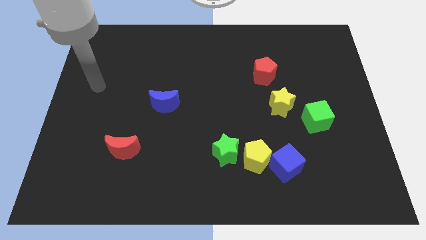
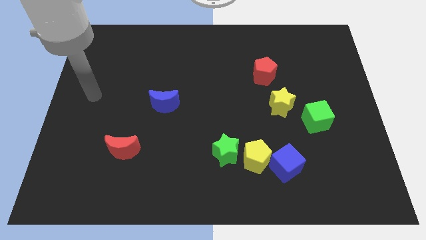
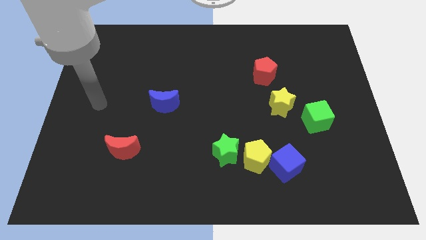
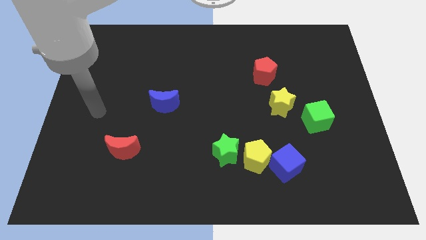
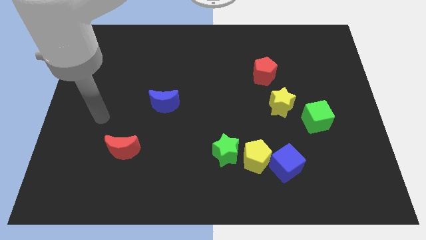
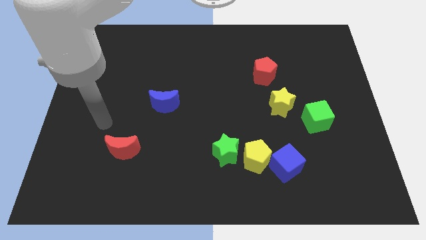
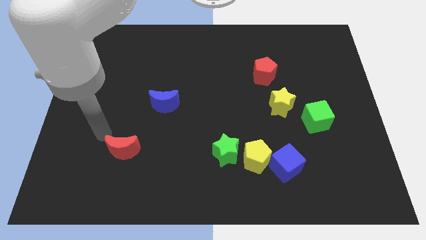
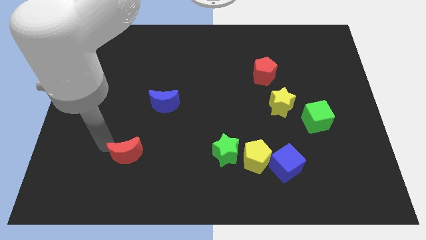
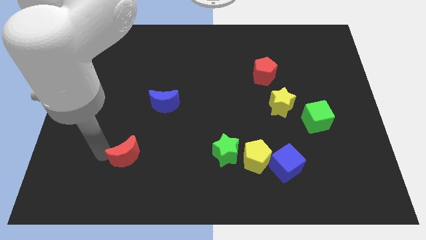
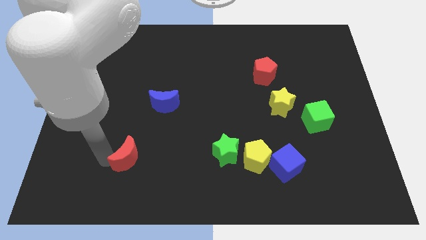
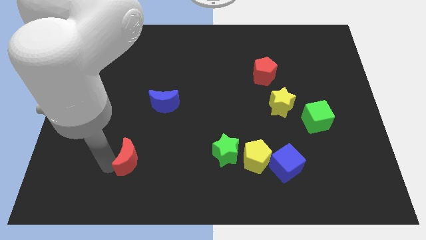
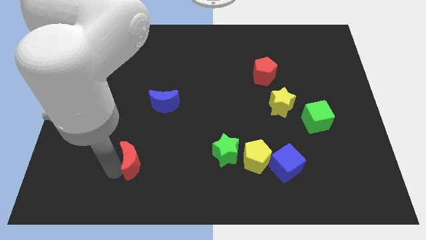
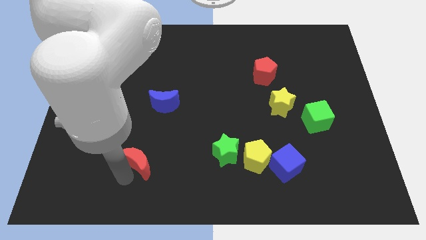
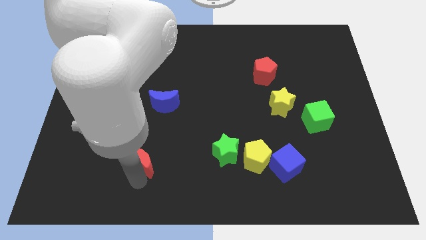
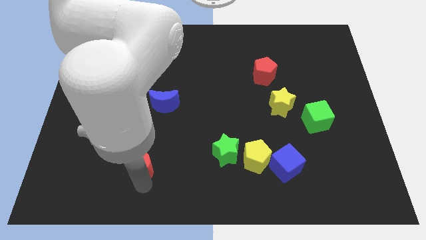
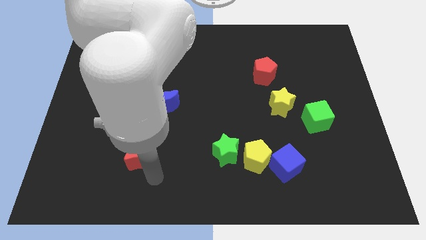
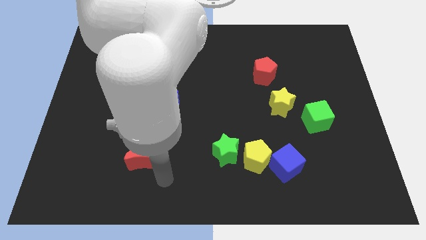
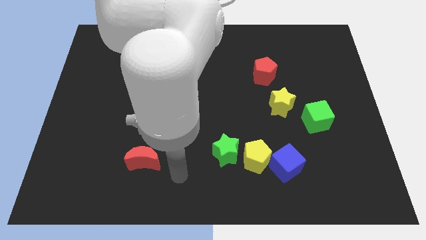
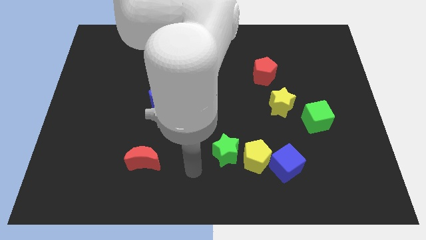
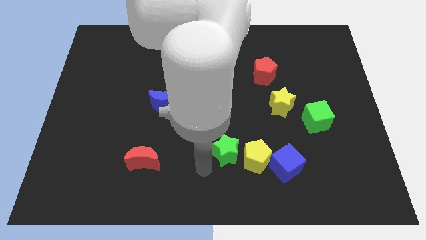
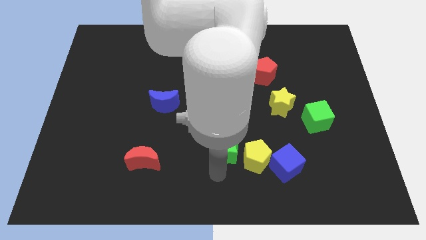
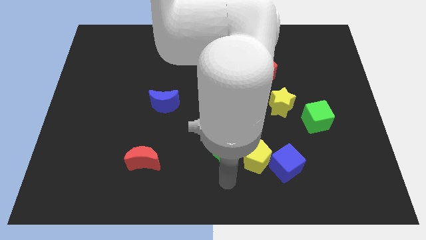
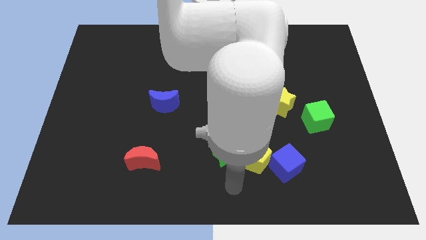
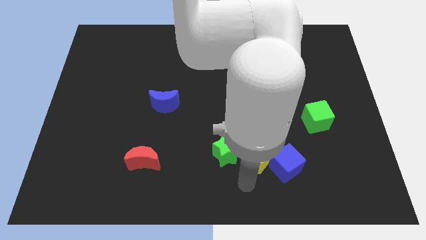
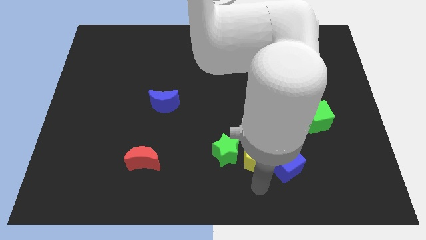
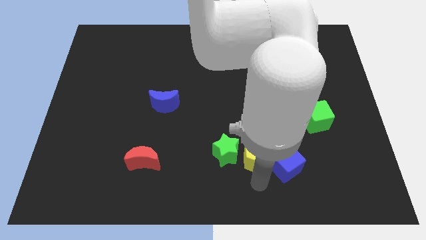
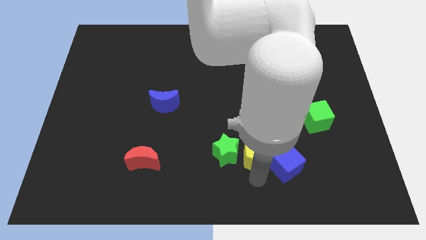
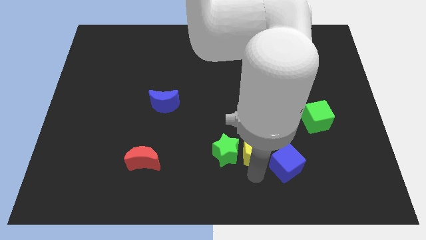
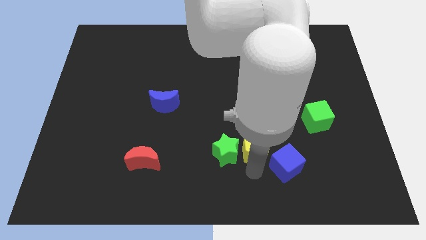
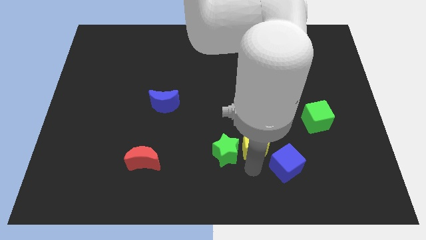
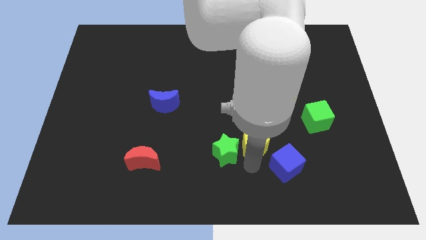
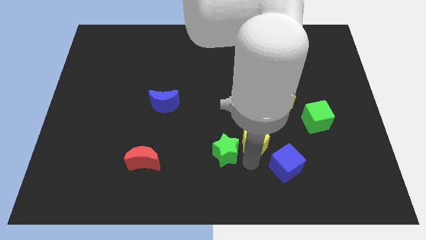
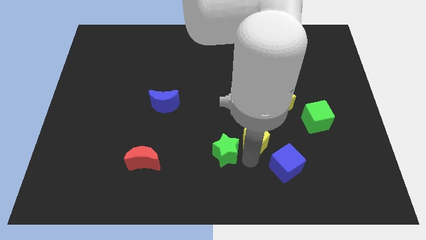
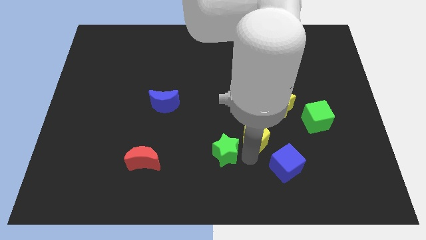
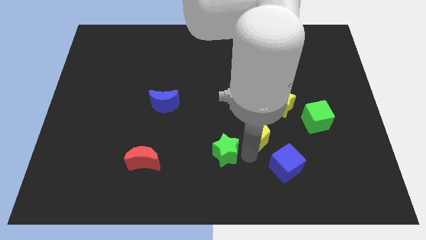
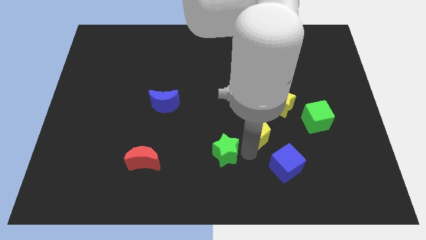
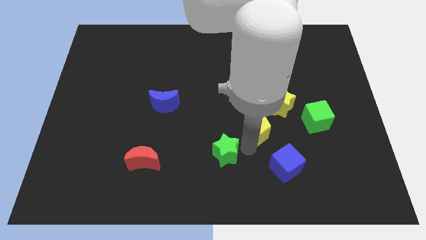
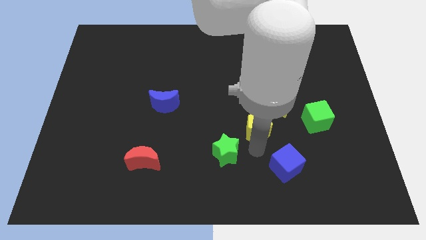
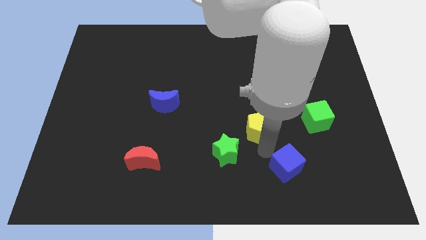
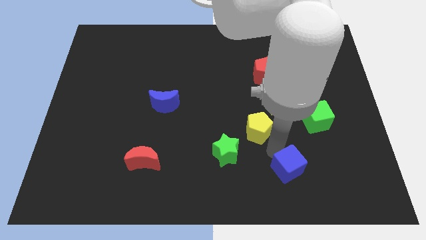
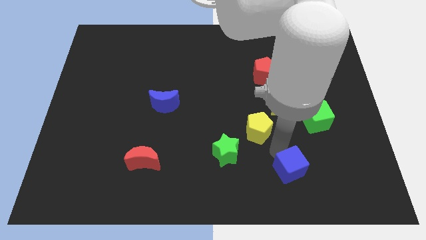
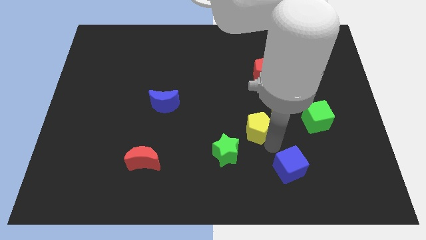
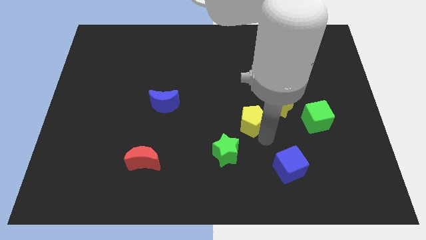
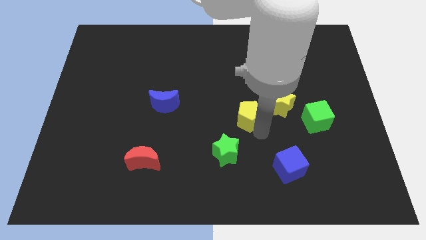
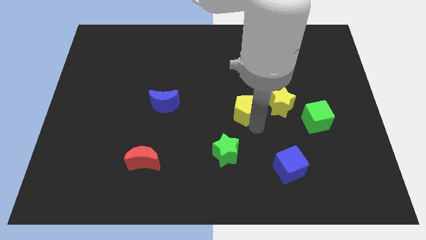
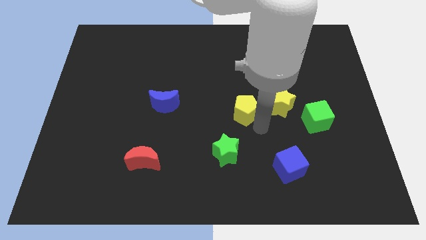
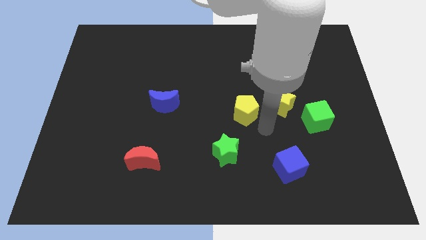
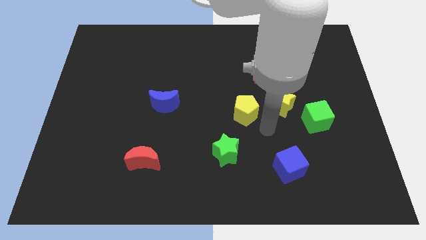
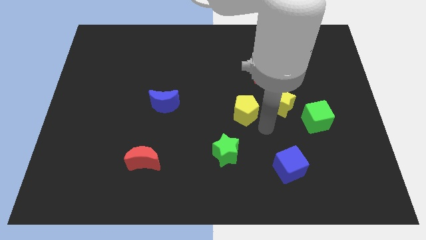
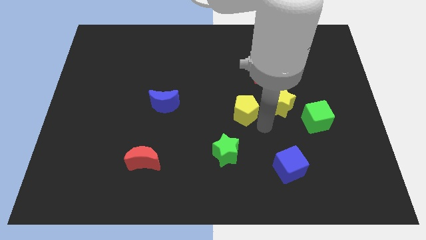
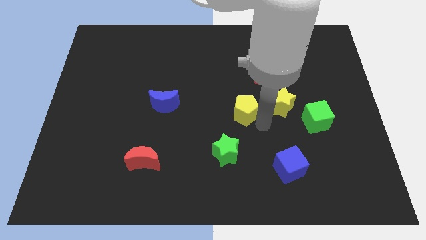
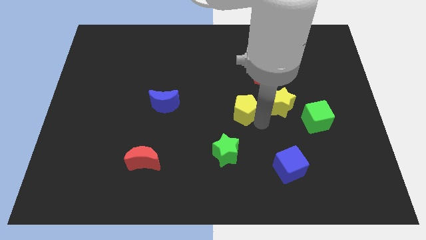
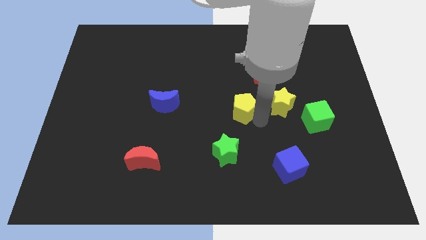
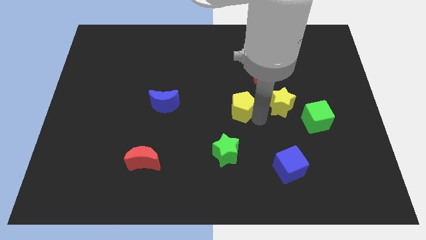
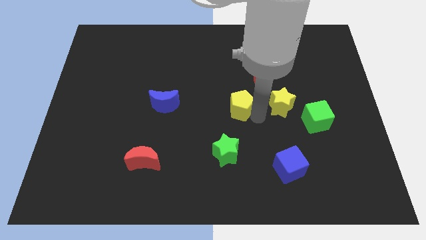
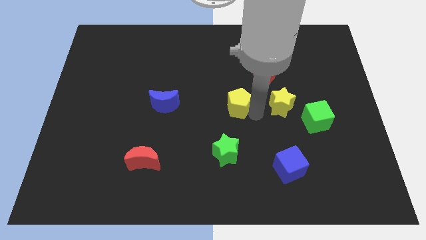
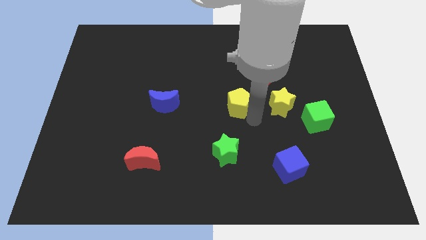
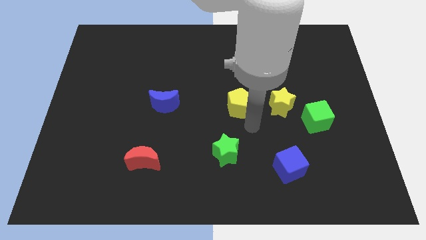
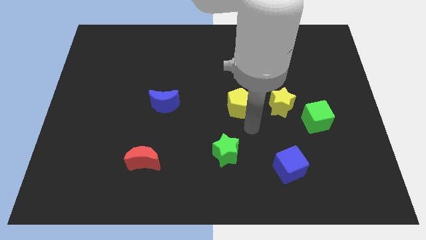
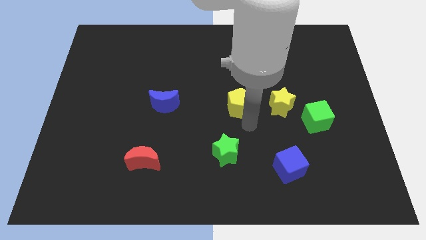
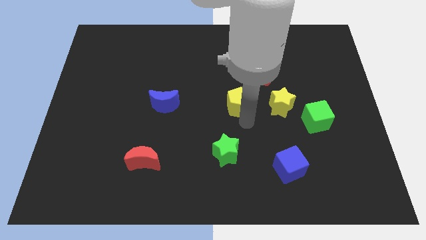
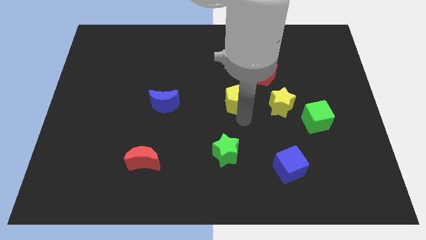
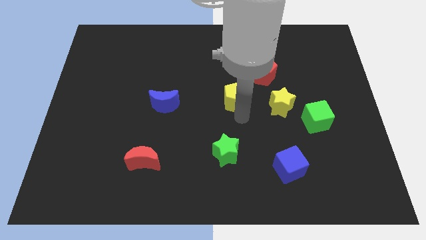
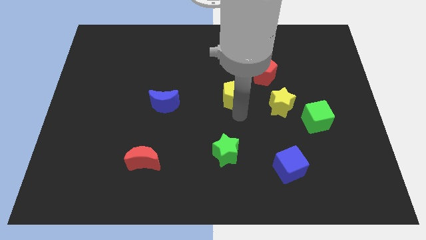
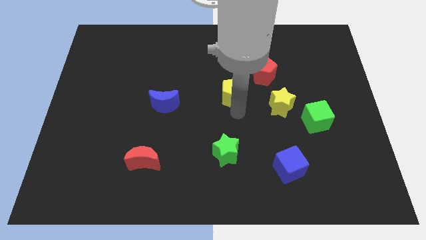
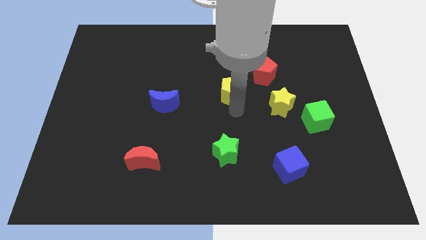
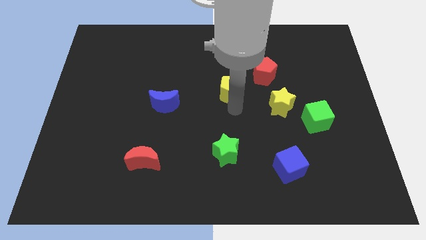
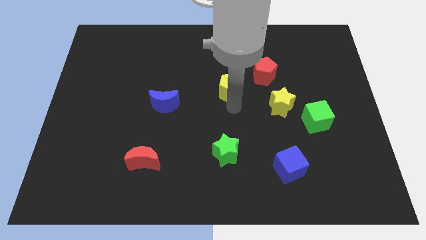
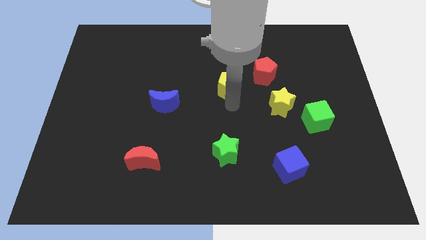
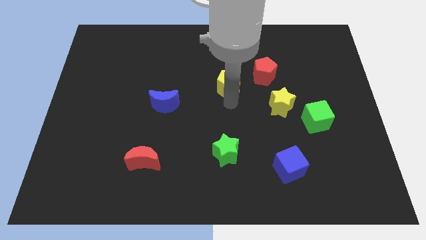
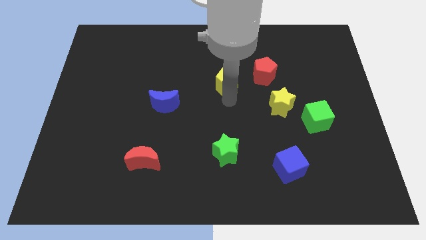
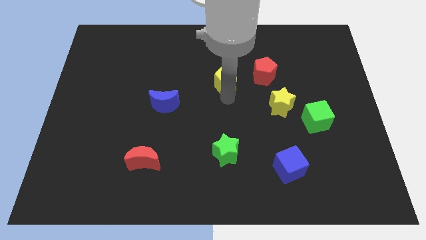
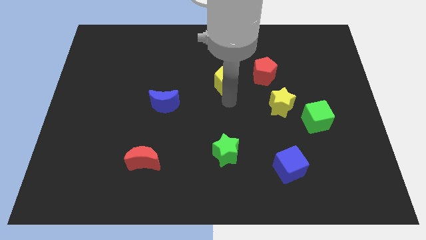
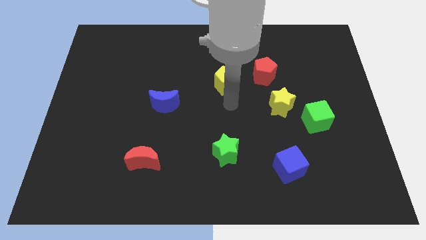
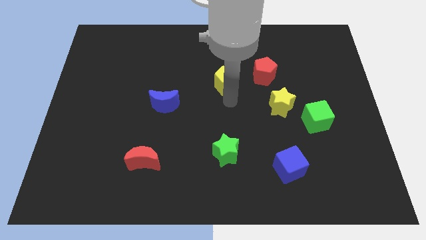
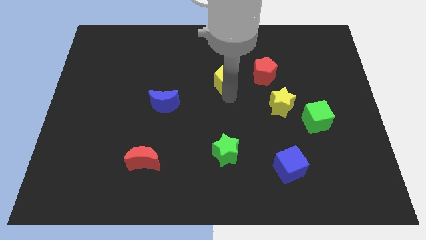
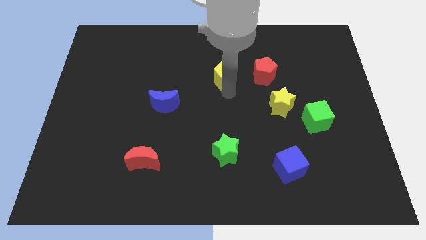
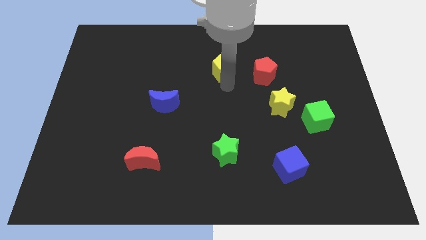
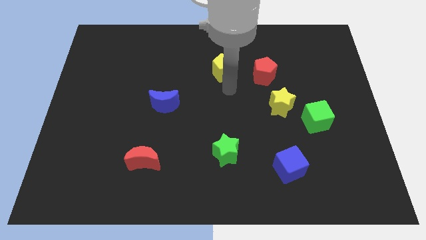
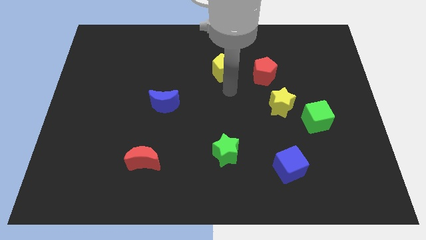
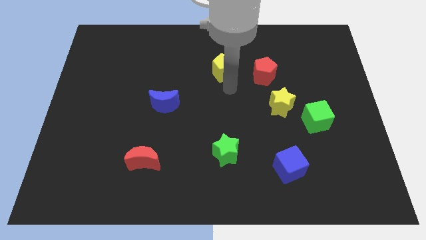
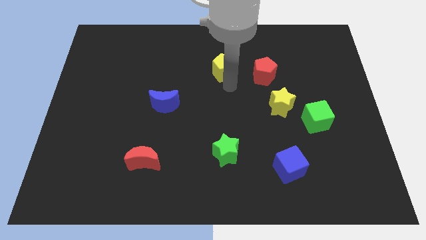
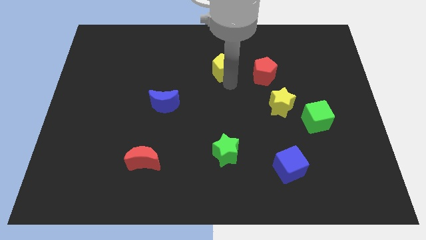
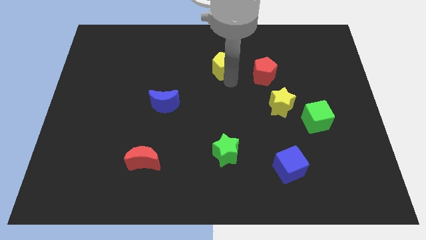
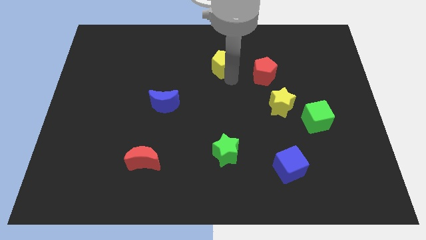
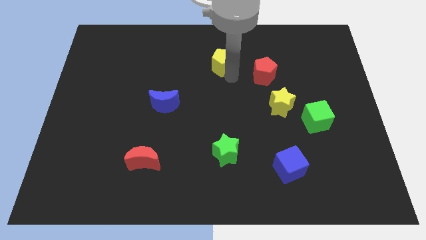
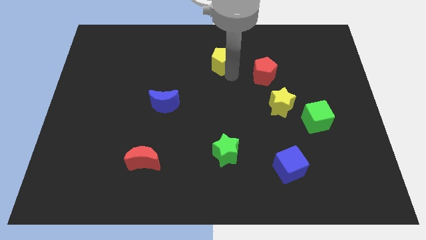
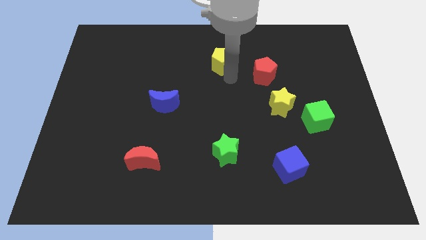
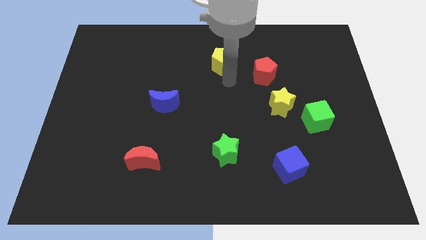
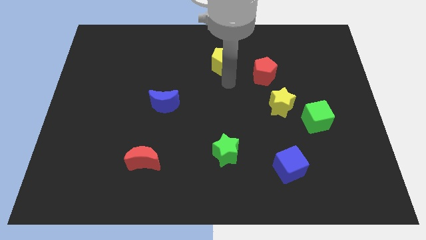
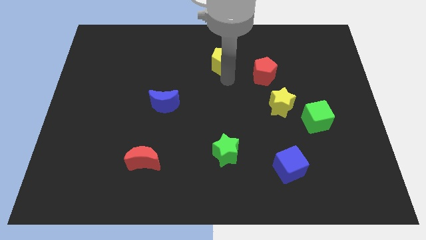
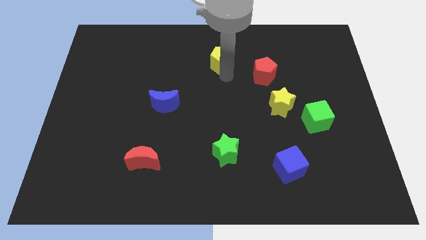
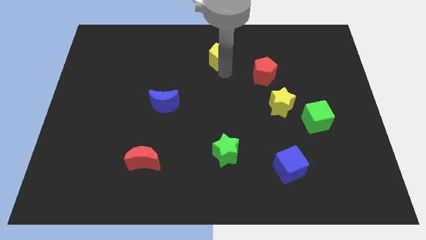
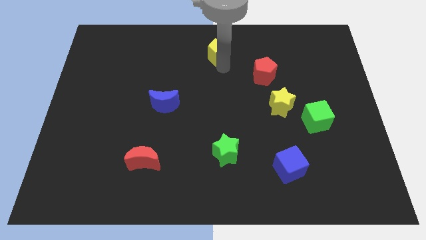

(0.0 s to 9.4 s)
push the yellow pentagon to the top side
